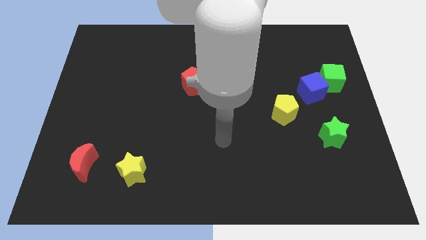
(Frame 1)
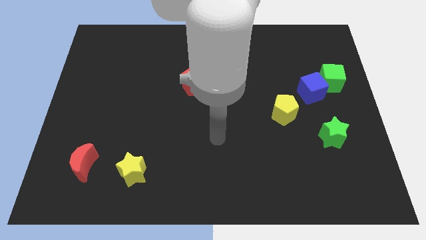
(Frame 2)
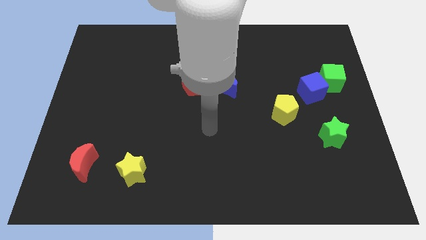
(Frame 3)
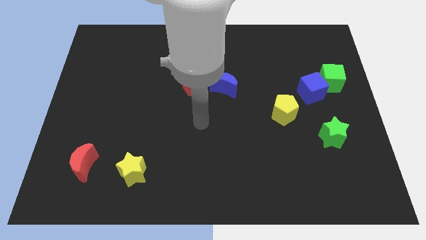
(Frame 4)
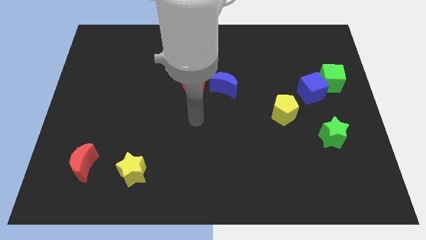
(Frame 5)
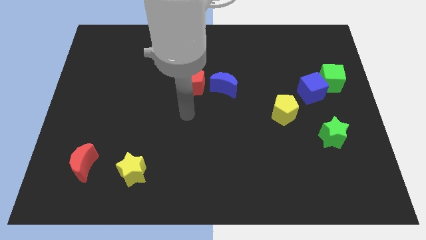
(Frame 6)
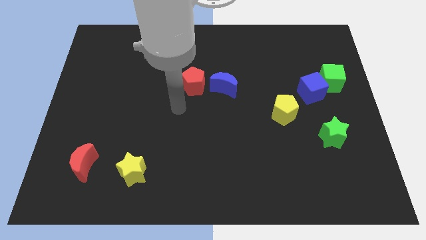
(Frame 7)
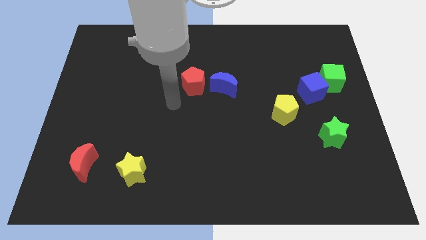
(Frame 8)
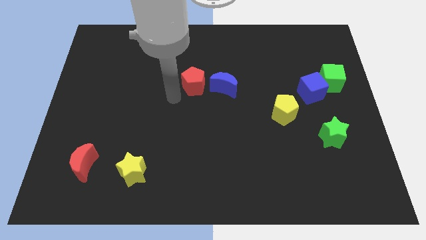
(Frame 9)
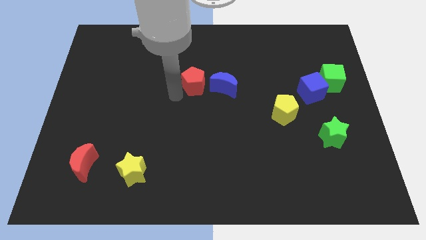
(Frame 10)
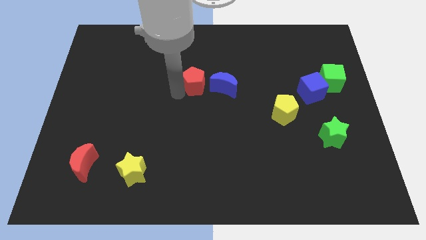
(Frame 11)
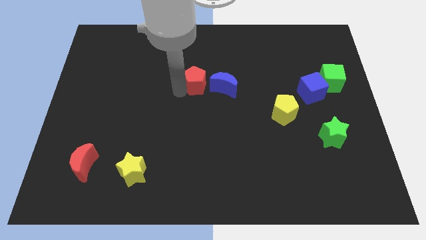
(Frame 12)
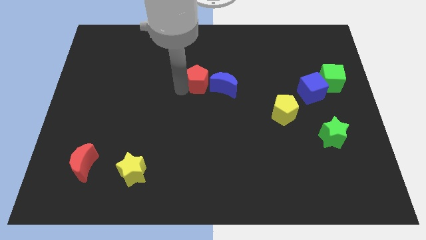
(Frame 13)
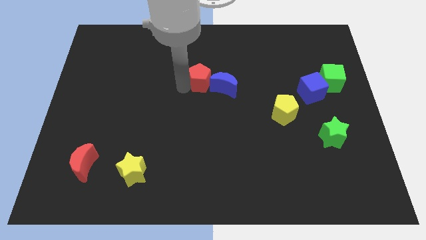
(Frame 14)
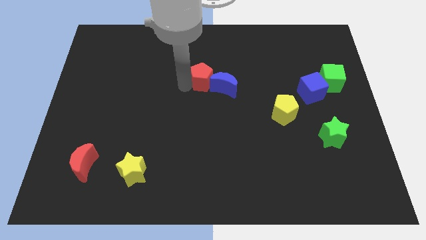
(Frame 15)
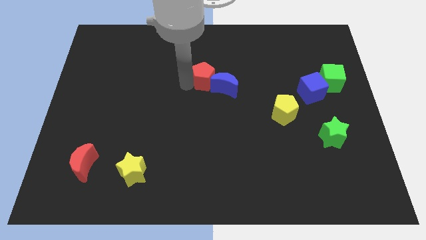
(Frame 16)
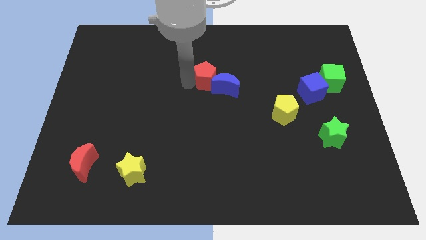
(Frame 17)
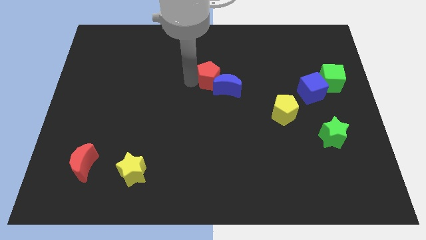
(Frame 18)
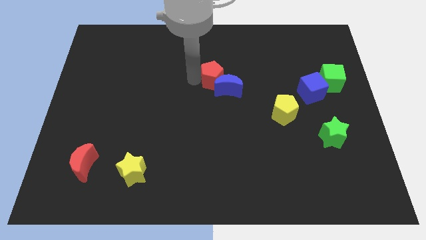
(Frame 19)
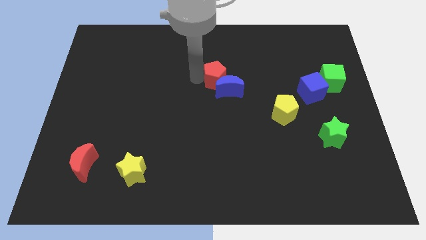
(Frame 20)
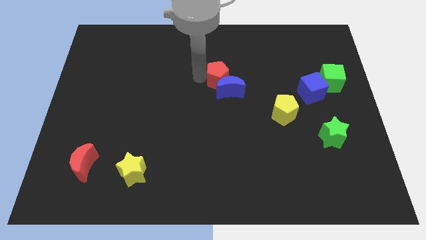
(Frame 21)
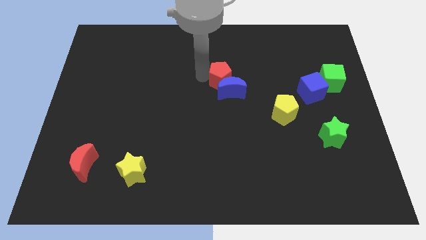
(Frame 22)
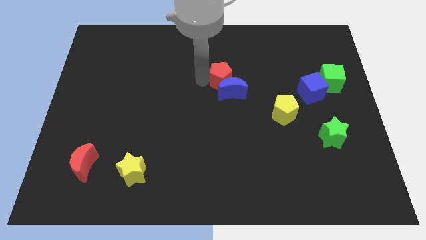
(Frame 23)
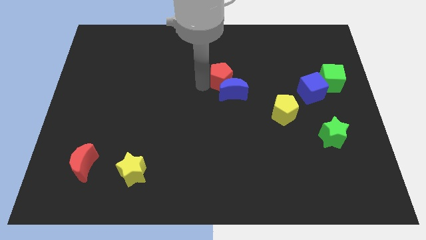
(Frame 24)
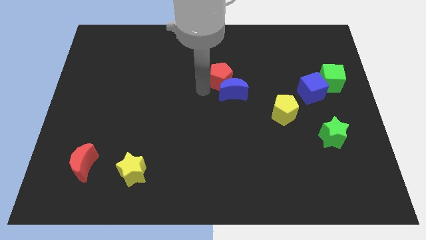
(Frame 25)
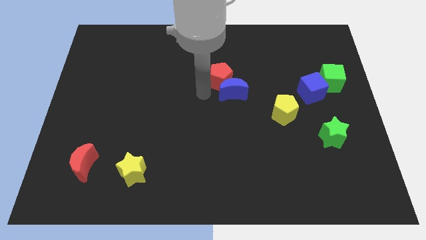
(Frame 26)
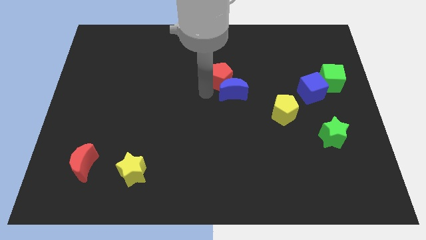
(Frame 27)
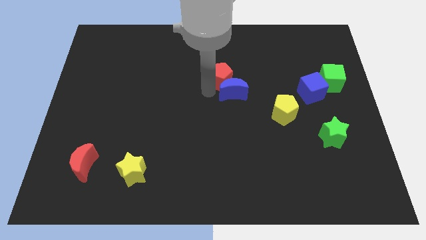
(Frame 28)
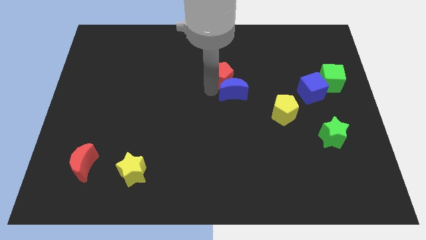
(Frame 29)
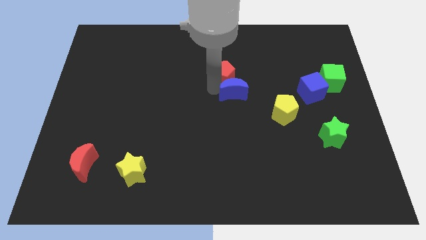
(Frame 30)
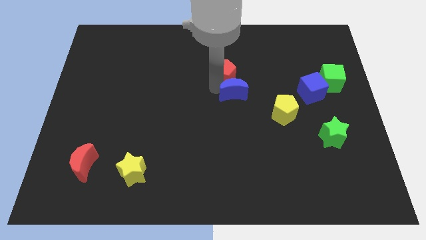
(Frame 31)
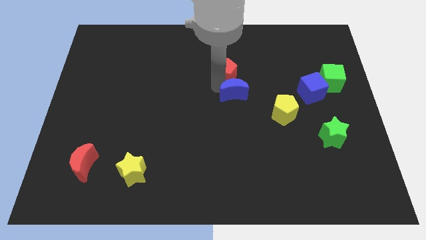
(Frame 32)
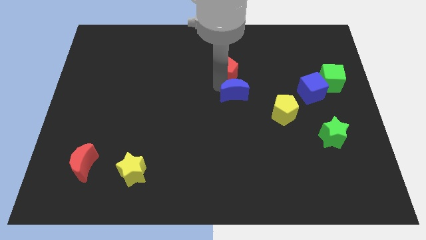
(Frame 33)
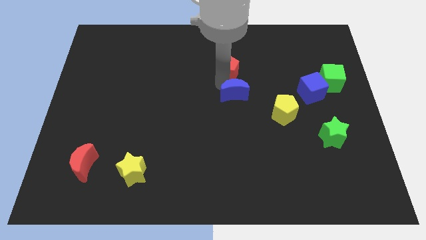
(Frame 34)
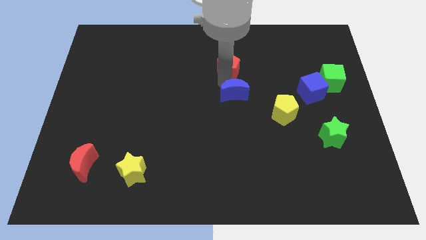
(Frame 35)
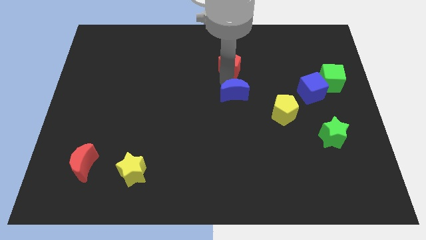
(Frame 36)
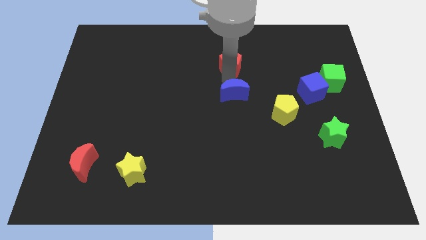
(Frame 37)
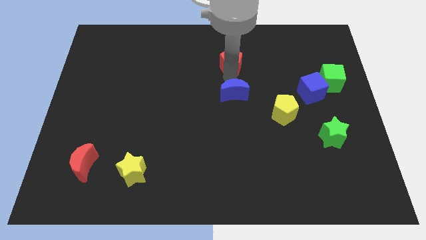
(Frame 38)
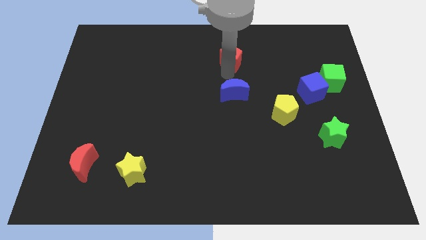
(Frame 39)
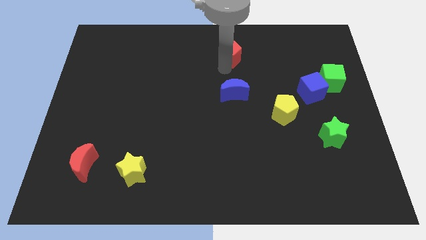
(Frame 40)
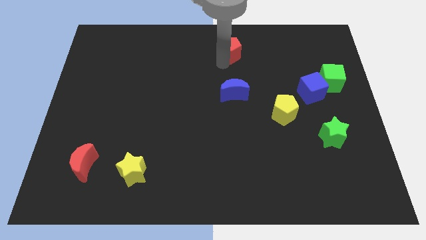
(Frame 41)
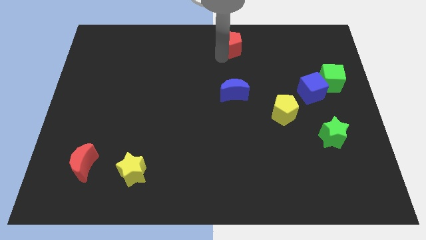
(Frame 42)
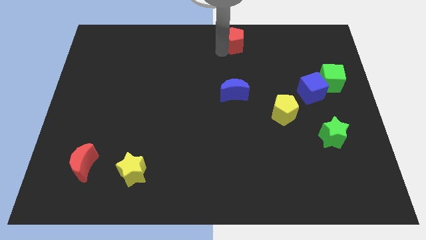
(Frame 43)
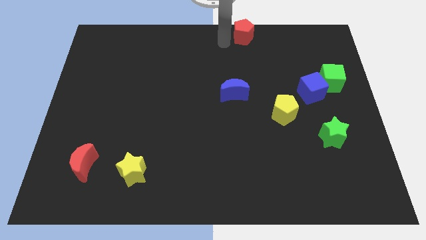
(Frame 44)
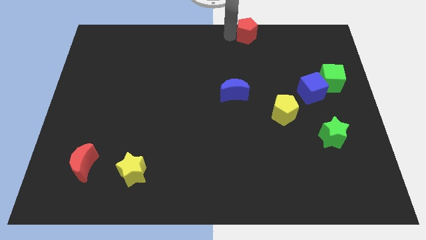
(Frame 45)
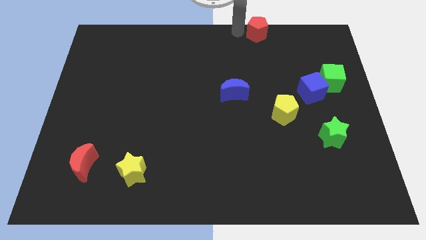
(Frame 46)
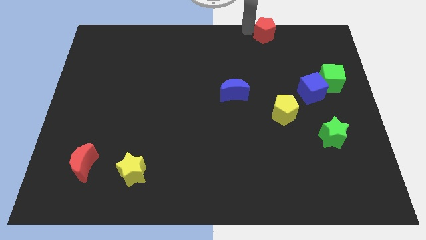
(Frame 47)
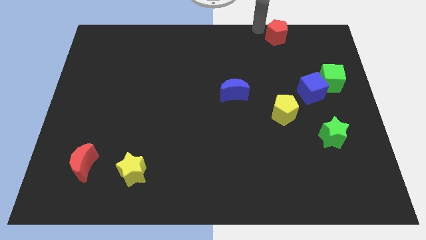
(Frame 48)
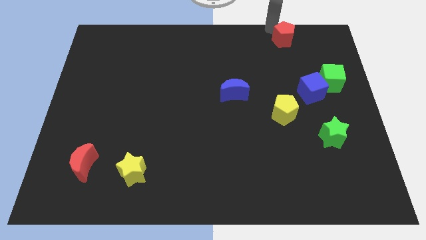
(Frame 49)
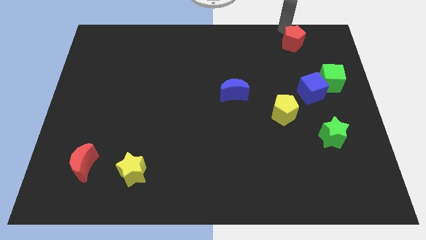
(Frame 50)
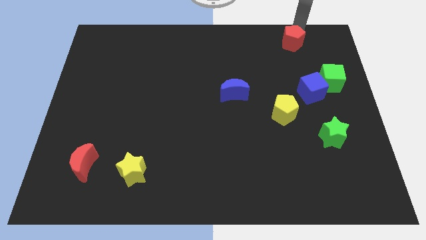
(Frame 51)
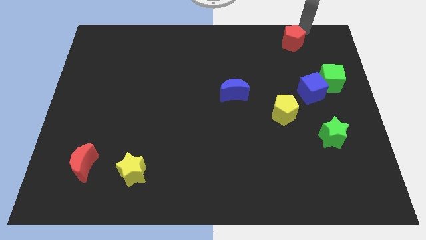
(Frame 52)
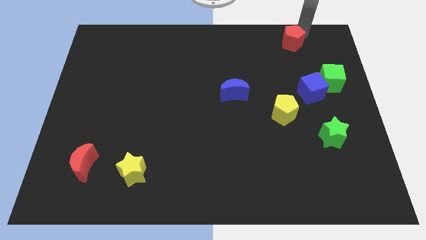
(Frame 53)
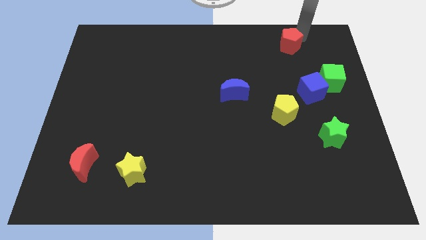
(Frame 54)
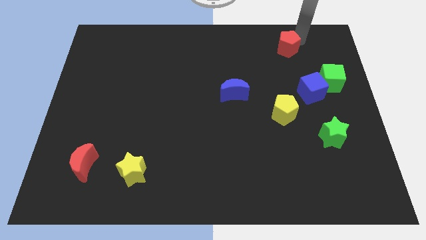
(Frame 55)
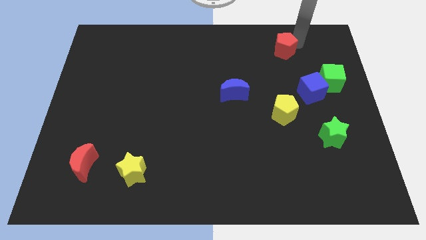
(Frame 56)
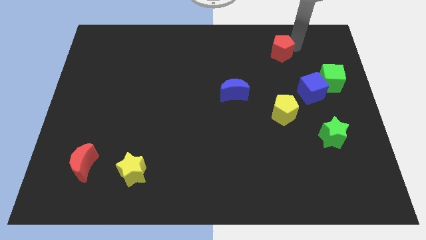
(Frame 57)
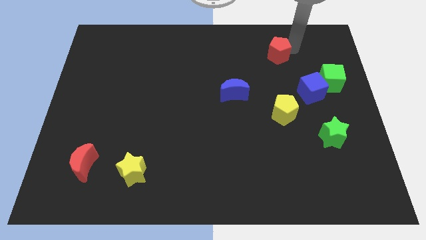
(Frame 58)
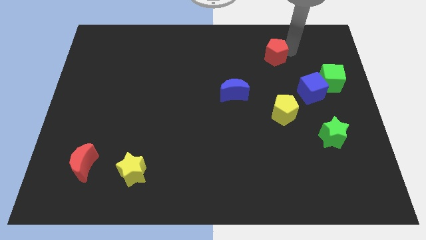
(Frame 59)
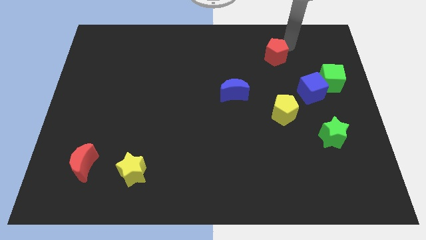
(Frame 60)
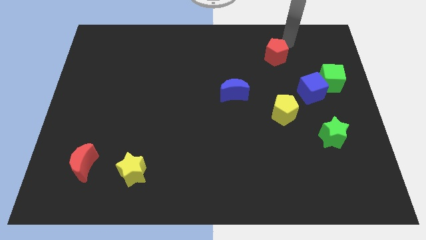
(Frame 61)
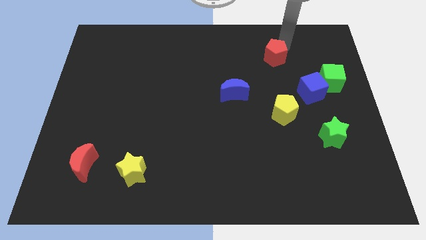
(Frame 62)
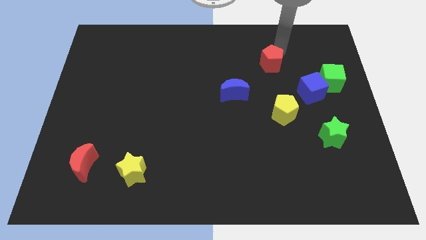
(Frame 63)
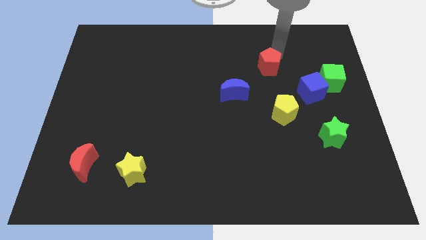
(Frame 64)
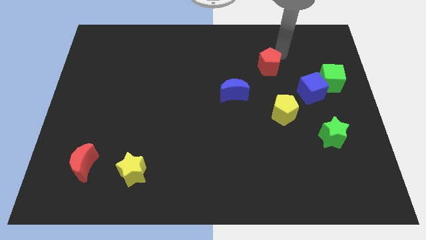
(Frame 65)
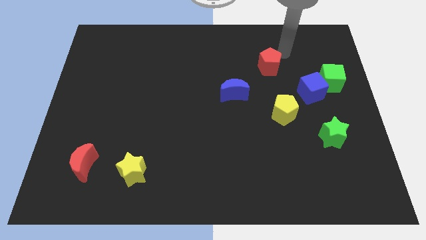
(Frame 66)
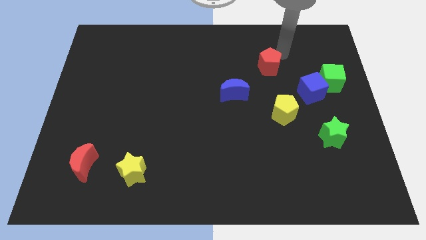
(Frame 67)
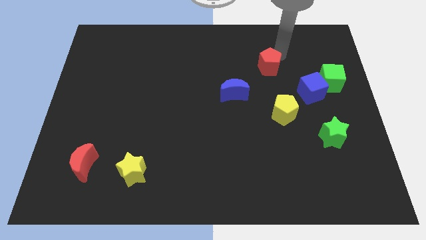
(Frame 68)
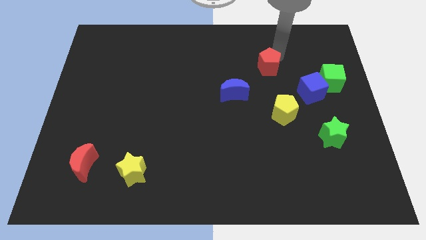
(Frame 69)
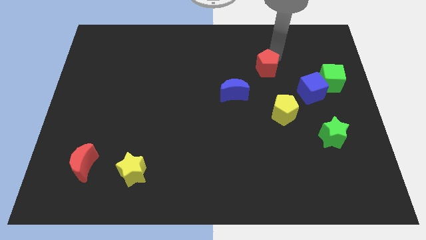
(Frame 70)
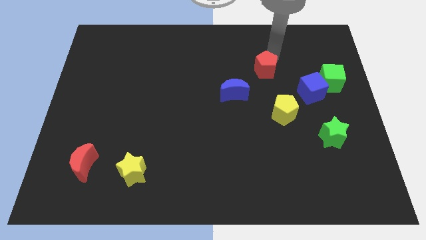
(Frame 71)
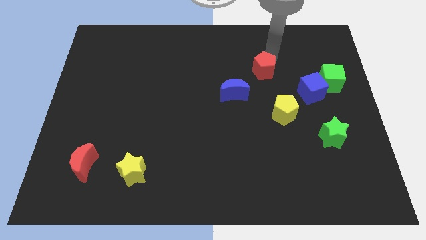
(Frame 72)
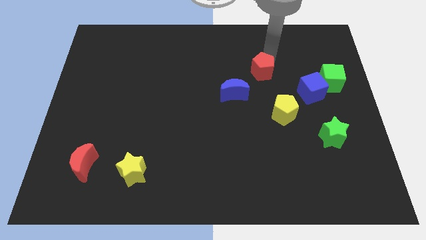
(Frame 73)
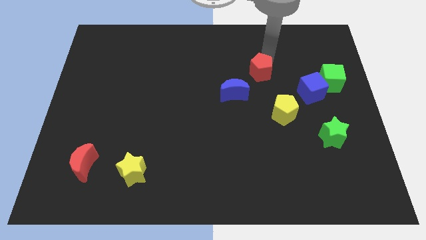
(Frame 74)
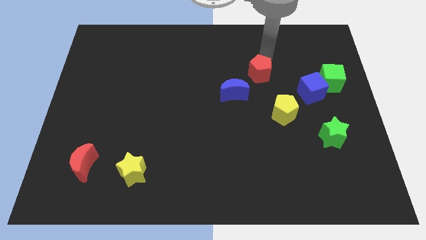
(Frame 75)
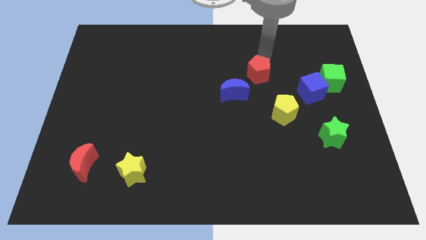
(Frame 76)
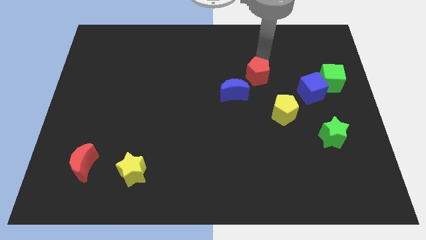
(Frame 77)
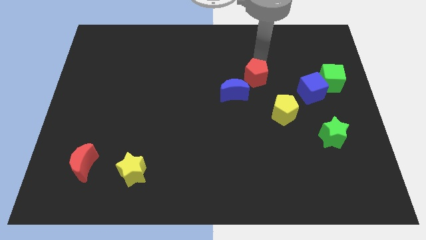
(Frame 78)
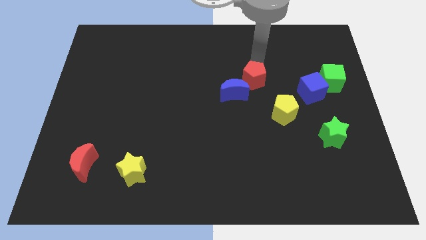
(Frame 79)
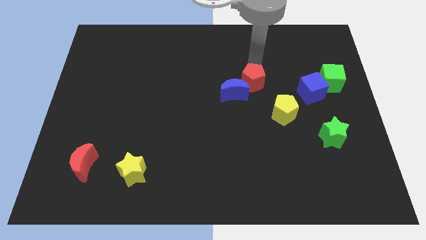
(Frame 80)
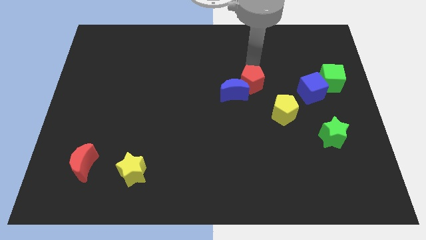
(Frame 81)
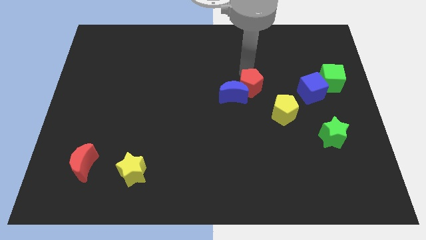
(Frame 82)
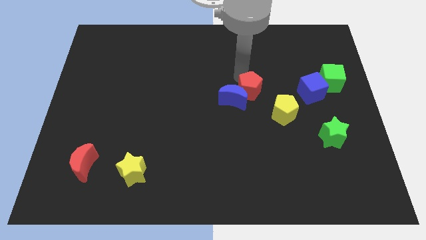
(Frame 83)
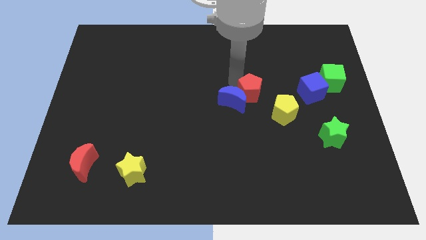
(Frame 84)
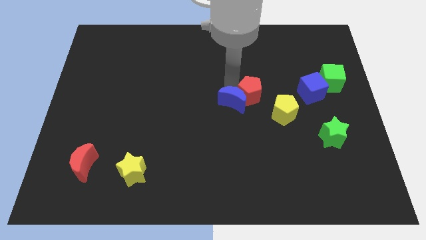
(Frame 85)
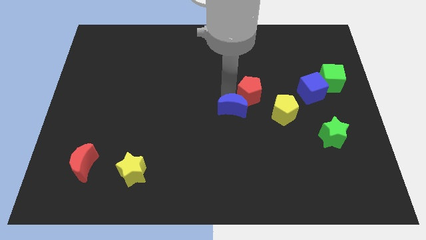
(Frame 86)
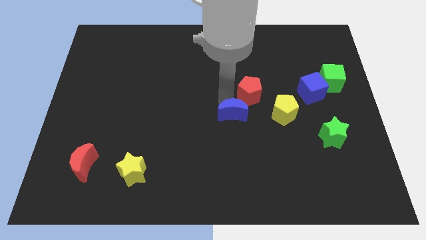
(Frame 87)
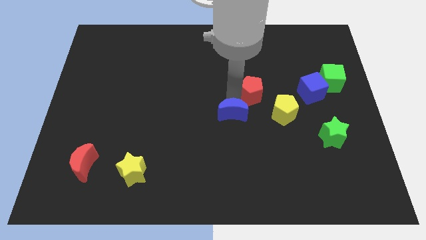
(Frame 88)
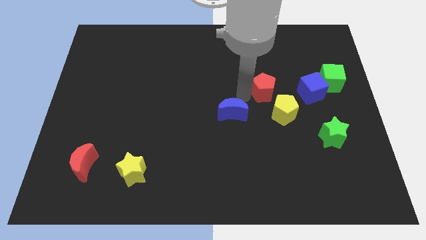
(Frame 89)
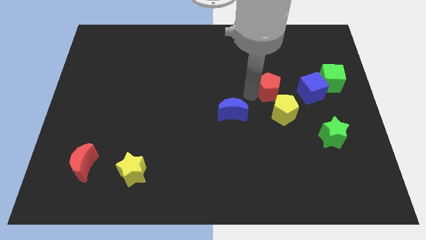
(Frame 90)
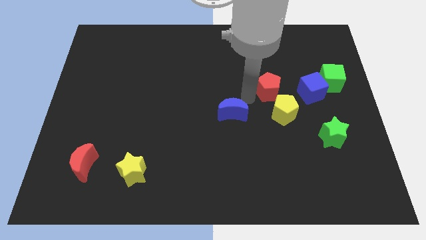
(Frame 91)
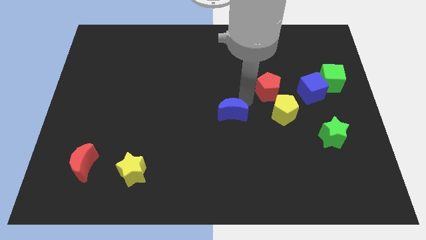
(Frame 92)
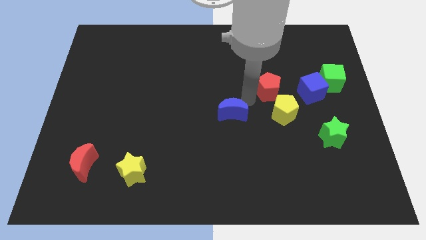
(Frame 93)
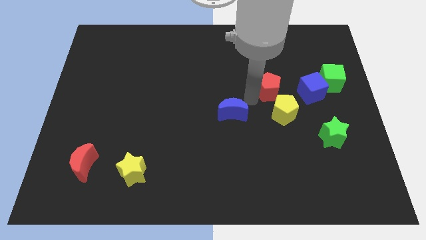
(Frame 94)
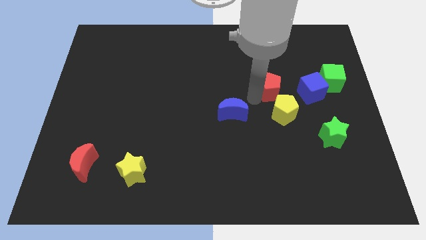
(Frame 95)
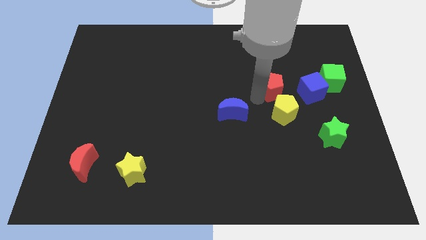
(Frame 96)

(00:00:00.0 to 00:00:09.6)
slide the red pentagon left of the green cube
